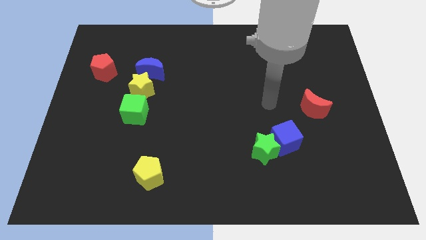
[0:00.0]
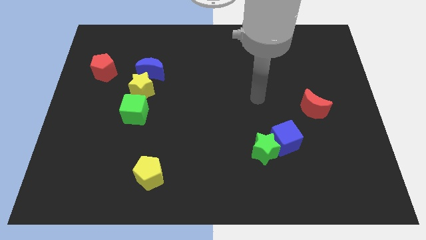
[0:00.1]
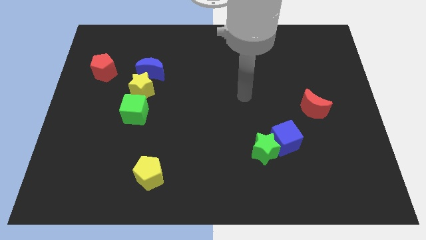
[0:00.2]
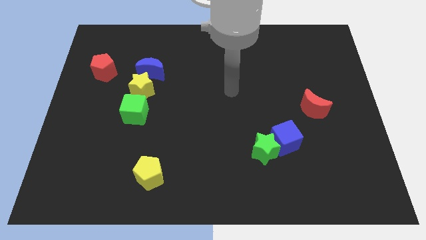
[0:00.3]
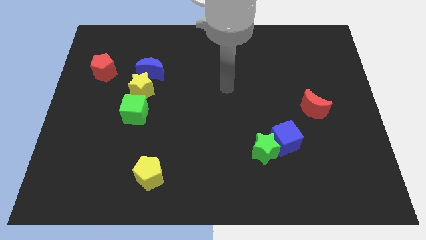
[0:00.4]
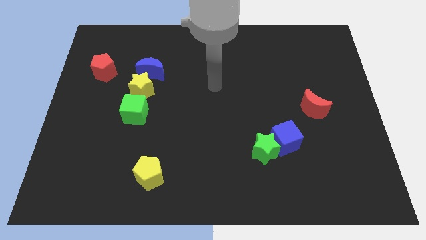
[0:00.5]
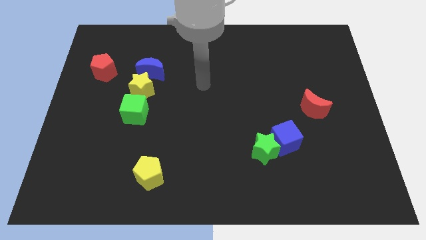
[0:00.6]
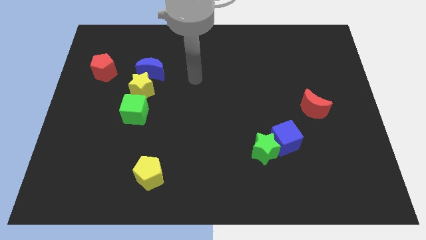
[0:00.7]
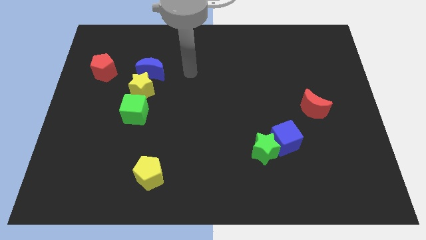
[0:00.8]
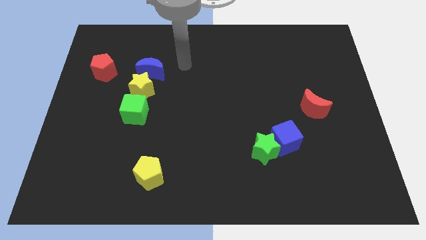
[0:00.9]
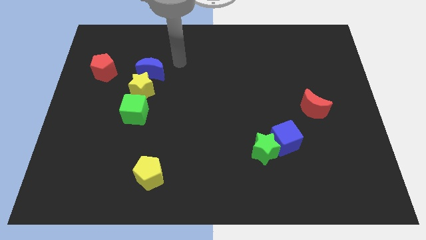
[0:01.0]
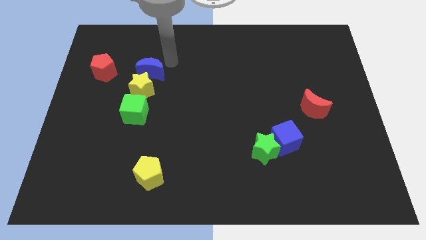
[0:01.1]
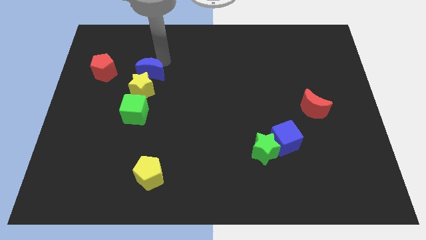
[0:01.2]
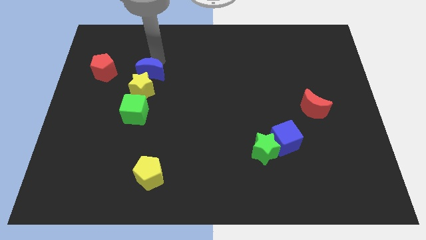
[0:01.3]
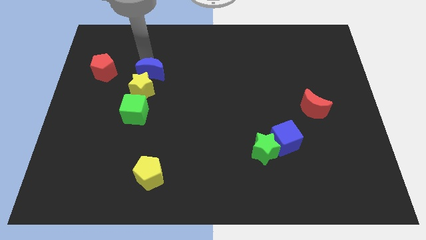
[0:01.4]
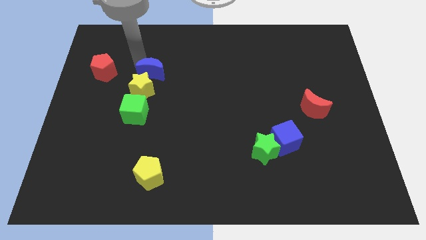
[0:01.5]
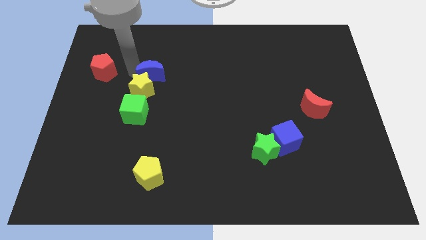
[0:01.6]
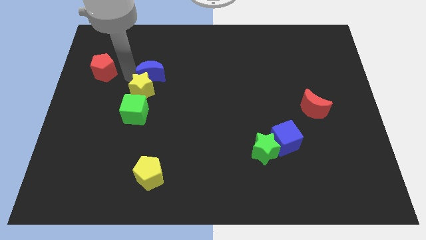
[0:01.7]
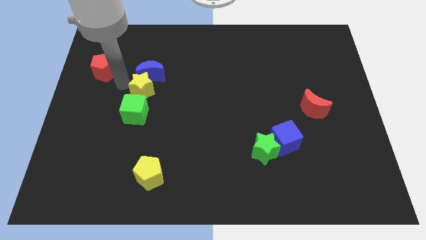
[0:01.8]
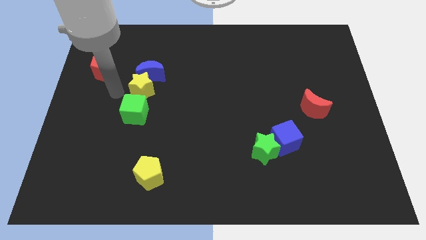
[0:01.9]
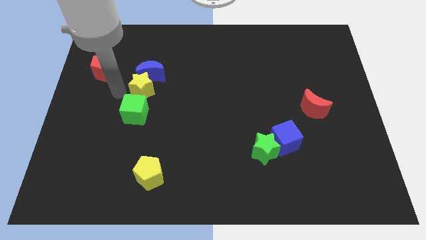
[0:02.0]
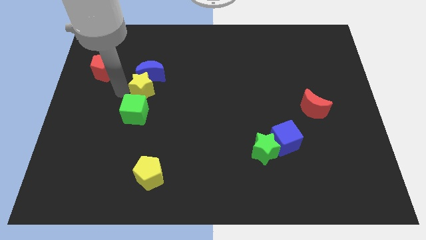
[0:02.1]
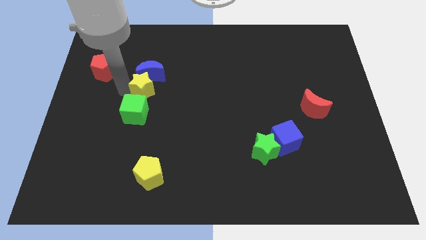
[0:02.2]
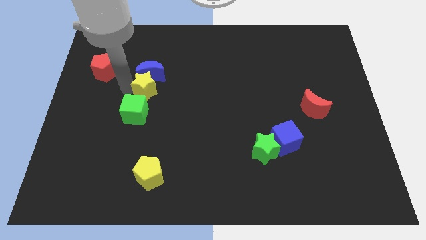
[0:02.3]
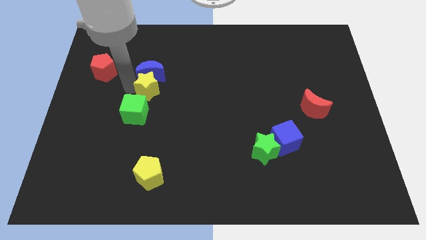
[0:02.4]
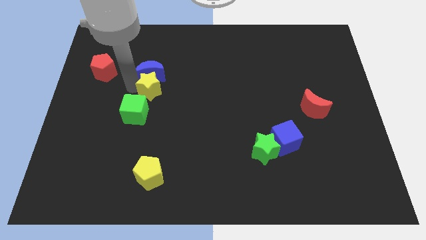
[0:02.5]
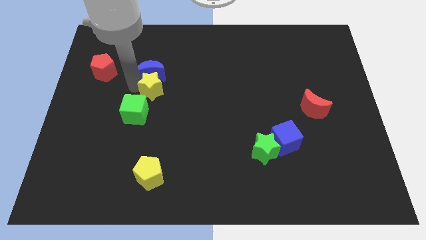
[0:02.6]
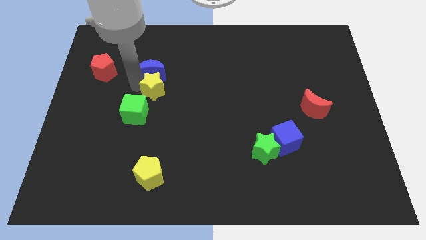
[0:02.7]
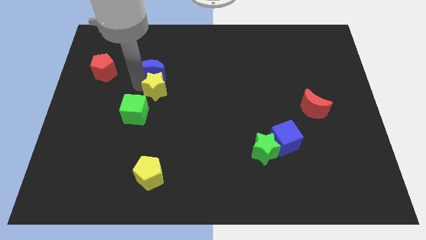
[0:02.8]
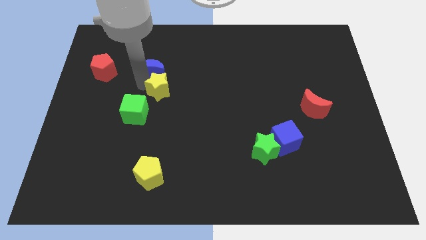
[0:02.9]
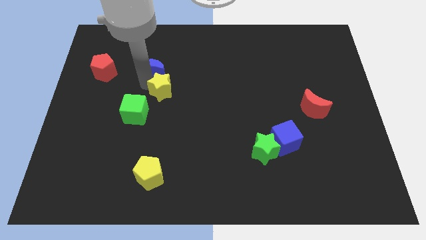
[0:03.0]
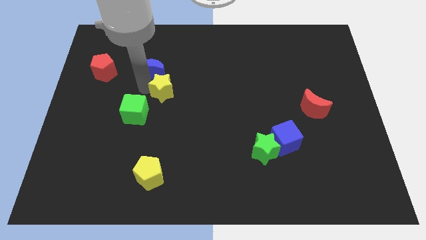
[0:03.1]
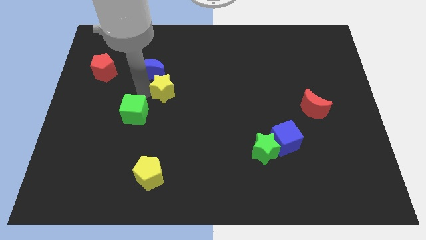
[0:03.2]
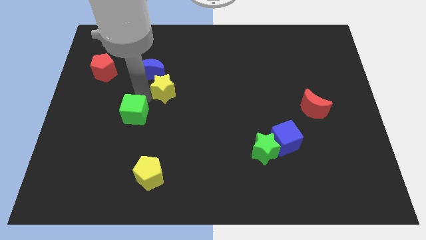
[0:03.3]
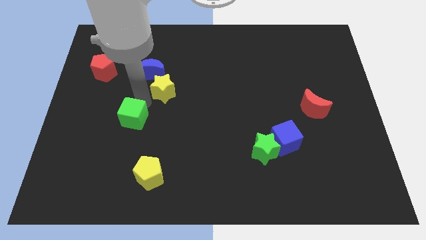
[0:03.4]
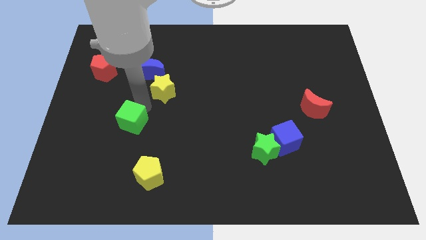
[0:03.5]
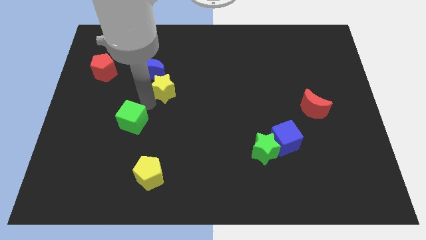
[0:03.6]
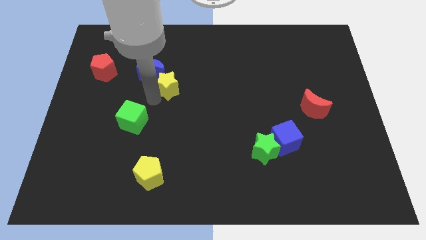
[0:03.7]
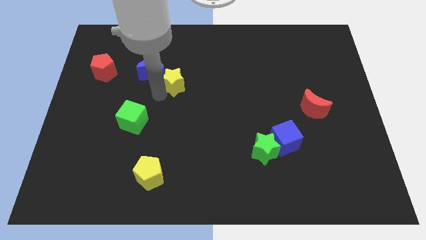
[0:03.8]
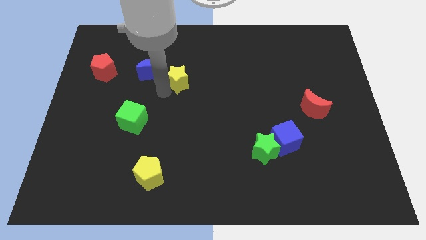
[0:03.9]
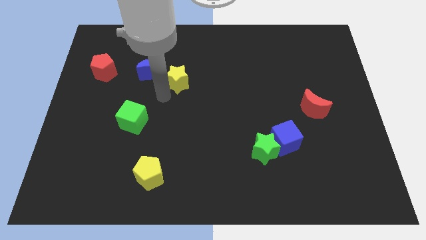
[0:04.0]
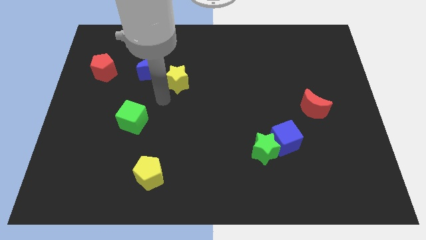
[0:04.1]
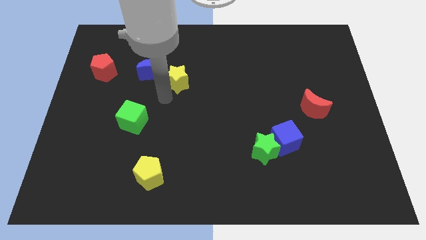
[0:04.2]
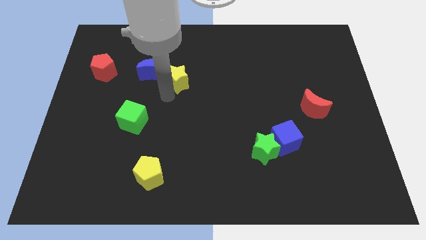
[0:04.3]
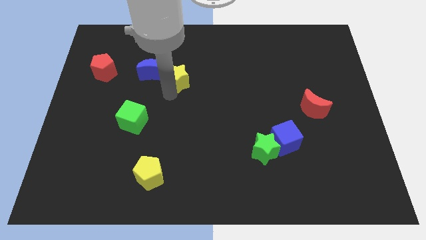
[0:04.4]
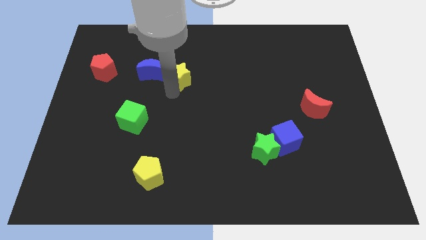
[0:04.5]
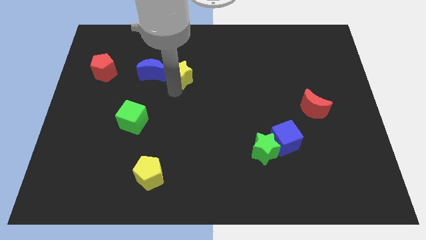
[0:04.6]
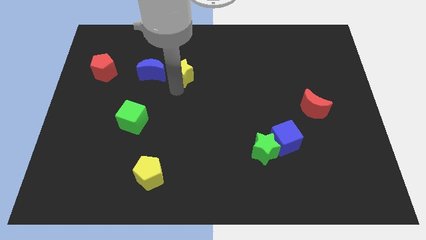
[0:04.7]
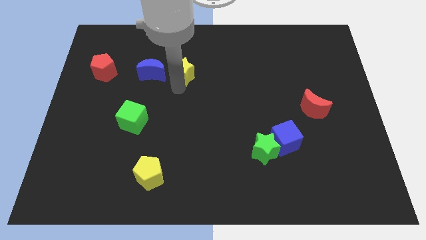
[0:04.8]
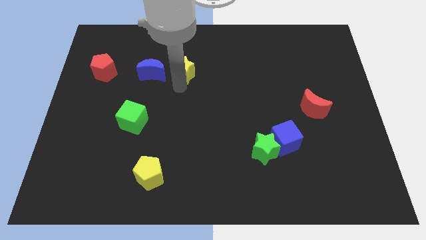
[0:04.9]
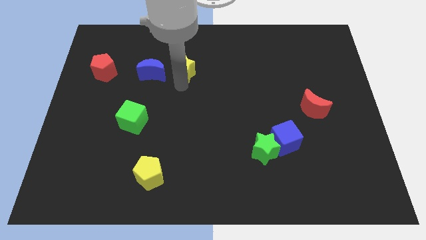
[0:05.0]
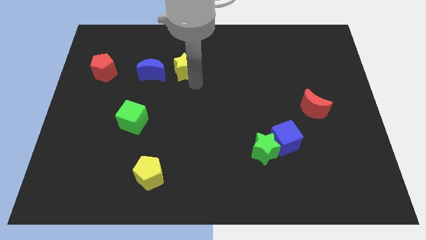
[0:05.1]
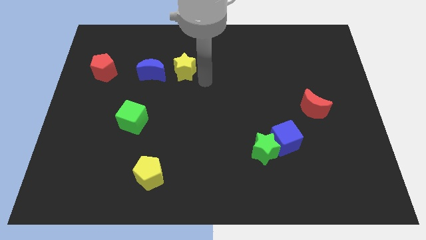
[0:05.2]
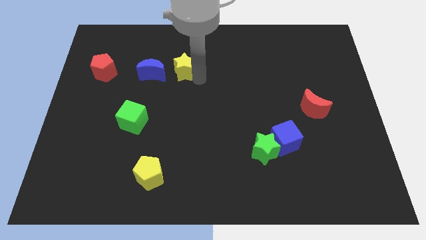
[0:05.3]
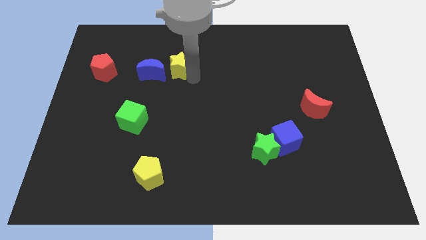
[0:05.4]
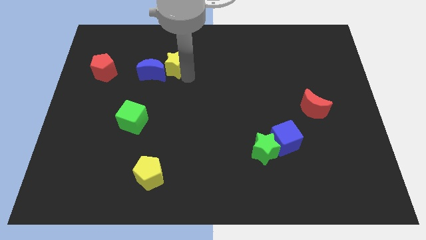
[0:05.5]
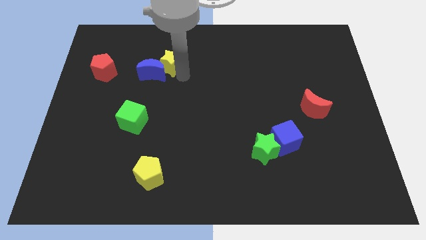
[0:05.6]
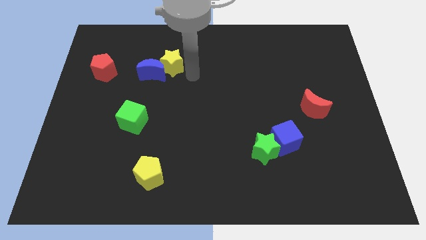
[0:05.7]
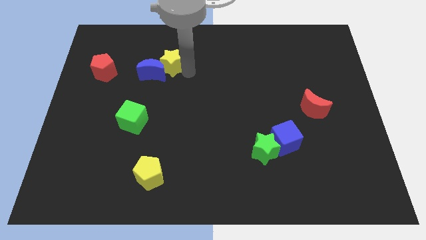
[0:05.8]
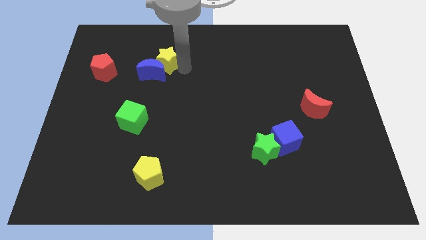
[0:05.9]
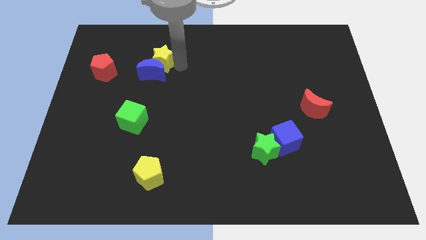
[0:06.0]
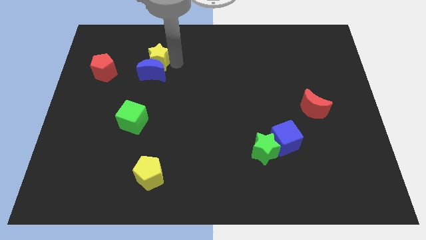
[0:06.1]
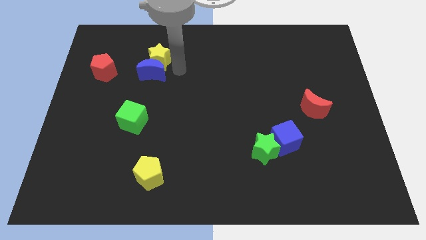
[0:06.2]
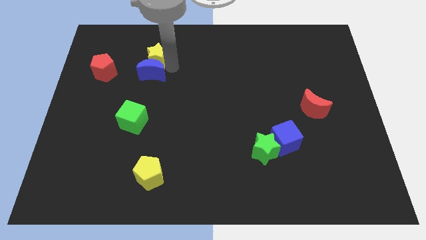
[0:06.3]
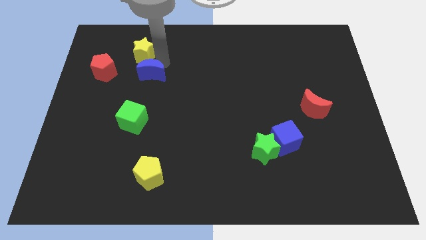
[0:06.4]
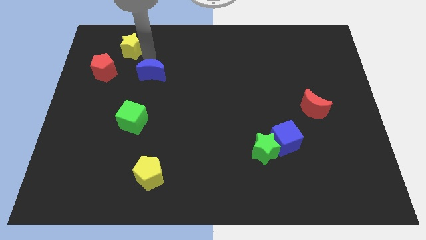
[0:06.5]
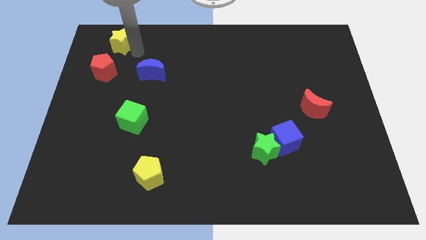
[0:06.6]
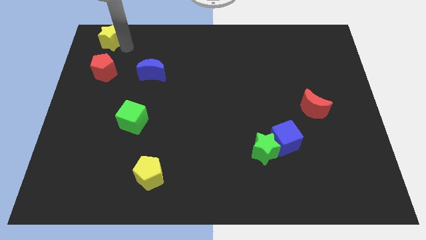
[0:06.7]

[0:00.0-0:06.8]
move the yellow star to the upper left corner
